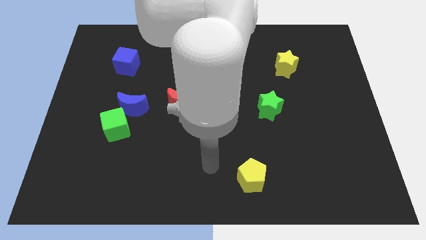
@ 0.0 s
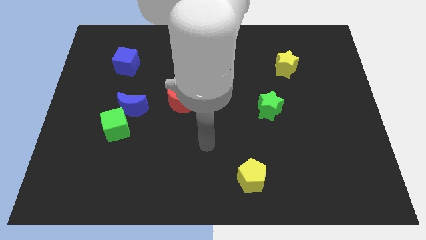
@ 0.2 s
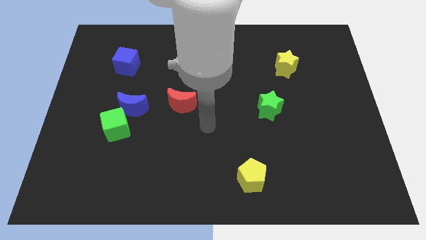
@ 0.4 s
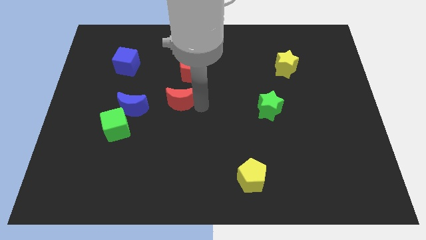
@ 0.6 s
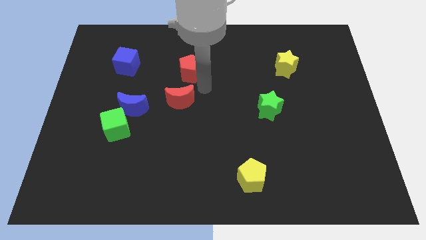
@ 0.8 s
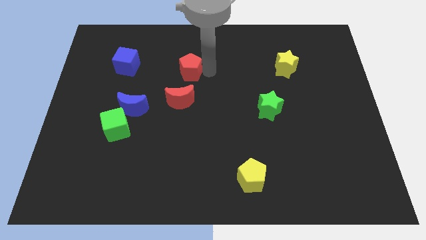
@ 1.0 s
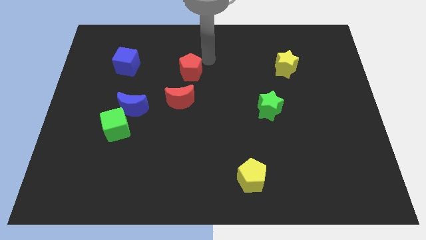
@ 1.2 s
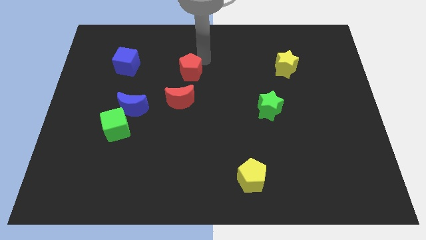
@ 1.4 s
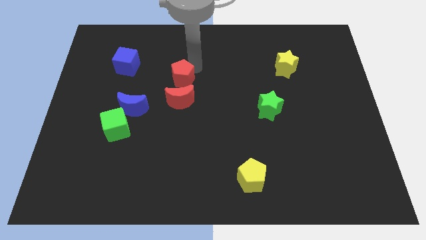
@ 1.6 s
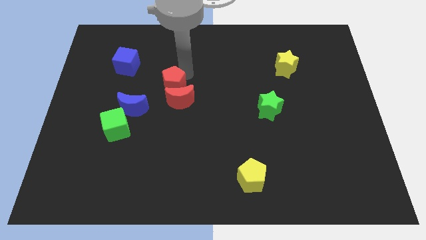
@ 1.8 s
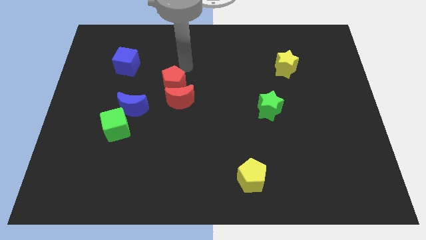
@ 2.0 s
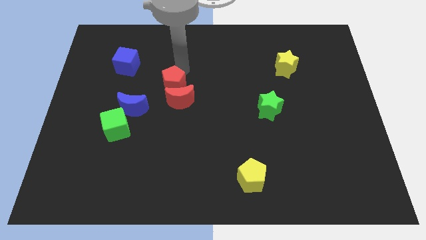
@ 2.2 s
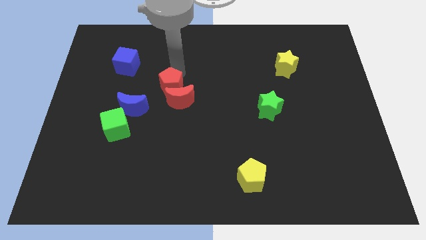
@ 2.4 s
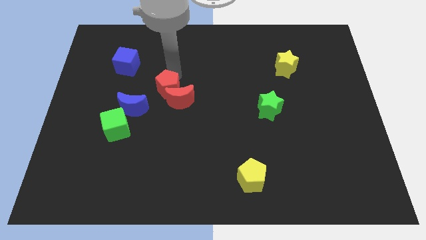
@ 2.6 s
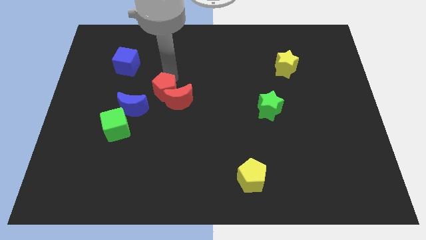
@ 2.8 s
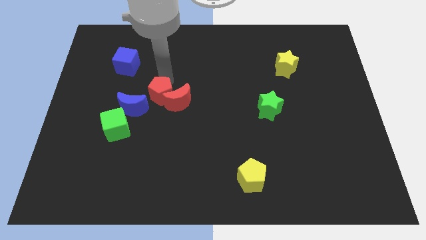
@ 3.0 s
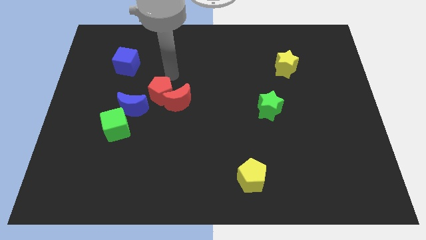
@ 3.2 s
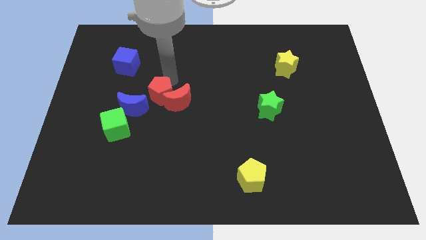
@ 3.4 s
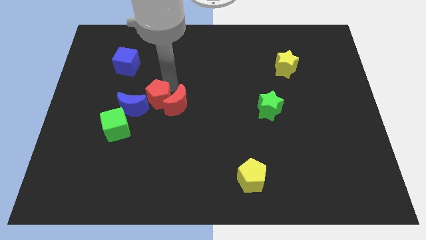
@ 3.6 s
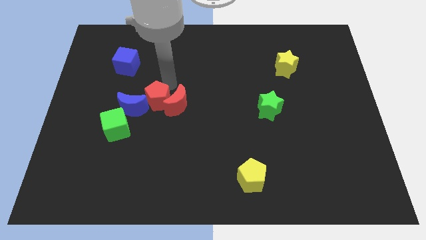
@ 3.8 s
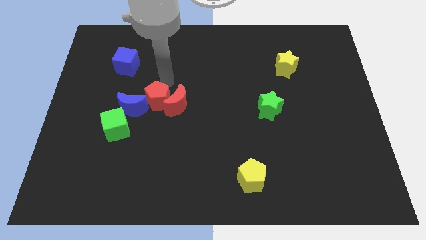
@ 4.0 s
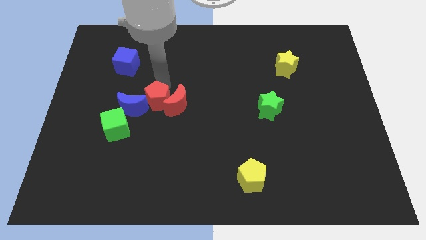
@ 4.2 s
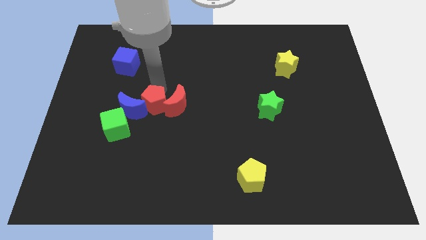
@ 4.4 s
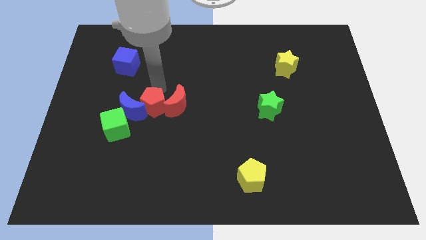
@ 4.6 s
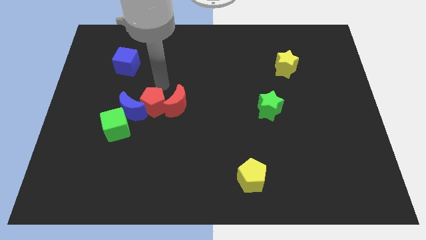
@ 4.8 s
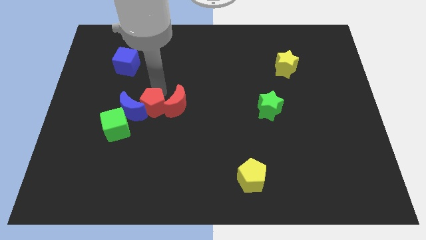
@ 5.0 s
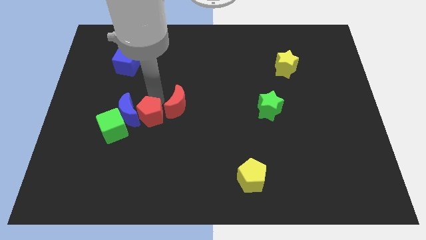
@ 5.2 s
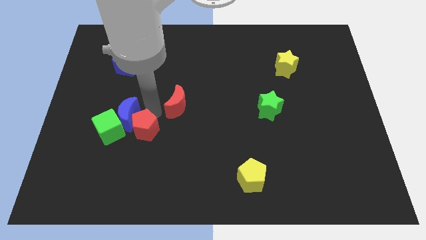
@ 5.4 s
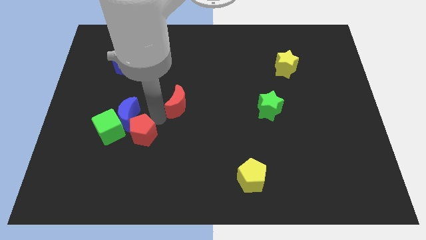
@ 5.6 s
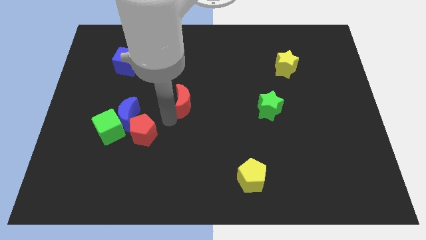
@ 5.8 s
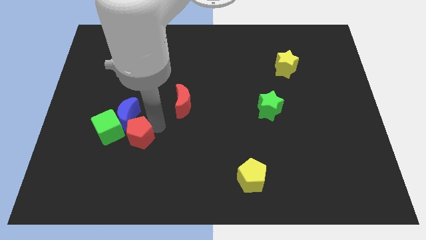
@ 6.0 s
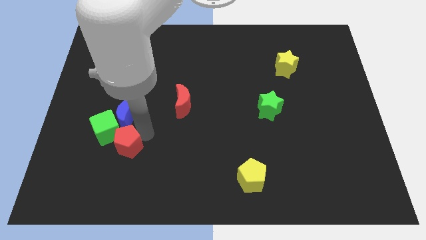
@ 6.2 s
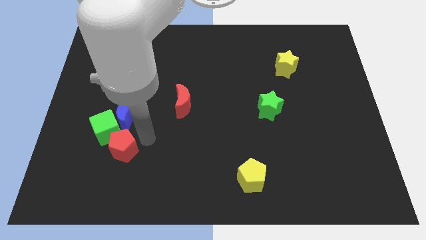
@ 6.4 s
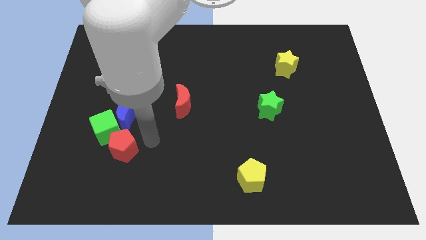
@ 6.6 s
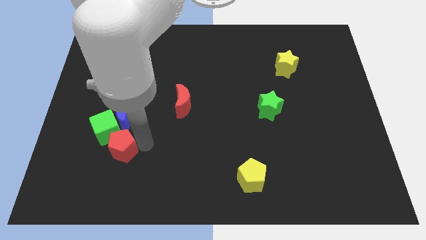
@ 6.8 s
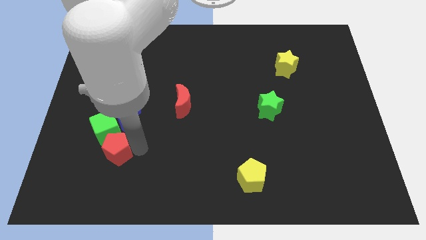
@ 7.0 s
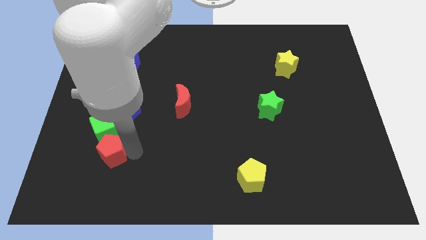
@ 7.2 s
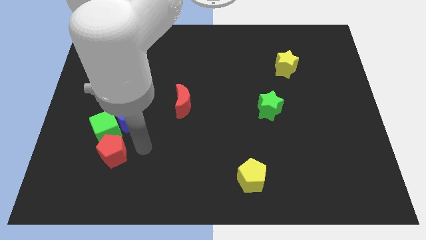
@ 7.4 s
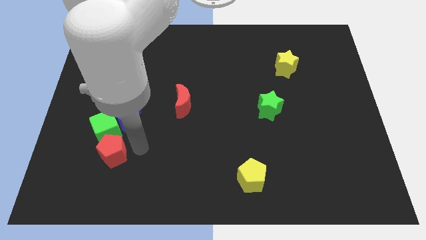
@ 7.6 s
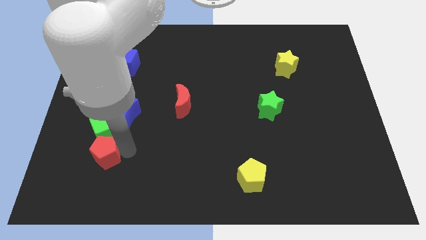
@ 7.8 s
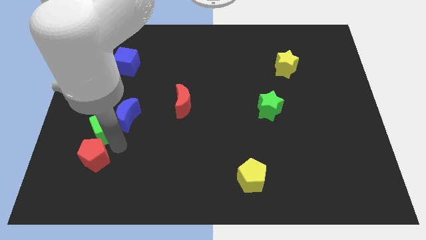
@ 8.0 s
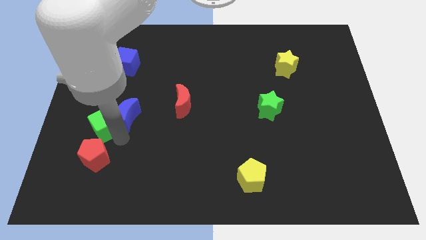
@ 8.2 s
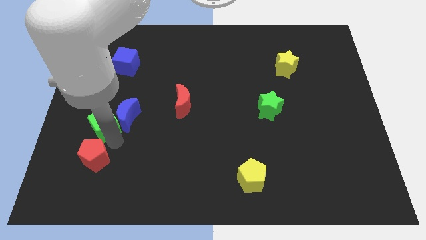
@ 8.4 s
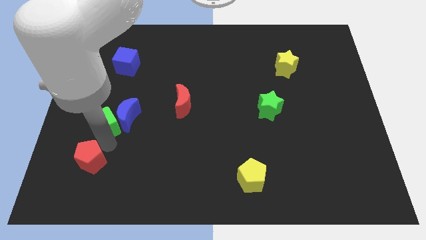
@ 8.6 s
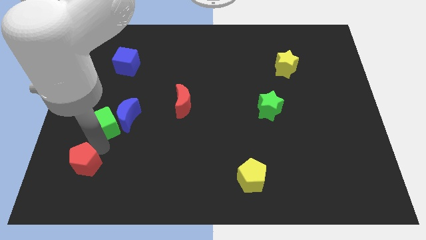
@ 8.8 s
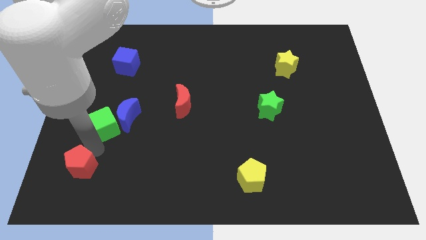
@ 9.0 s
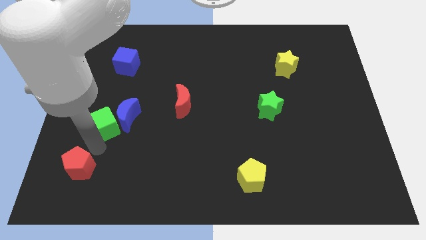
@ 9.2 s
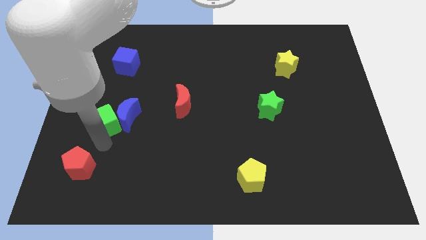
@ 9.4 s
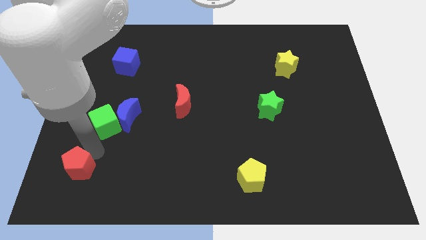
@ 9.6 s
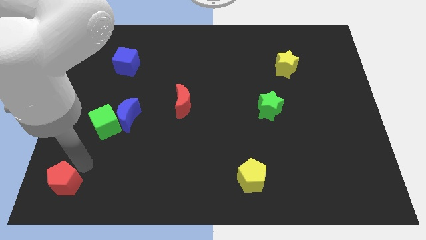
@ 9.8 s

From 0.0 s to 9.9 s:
push the red pentagon to the bottom left of the board

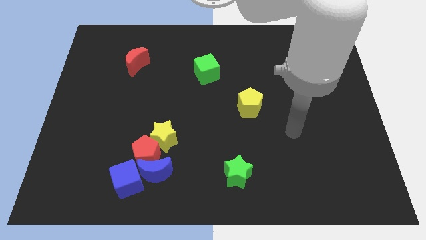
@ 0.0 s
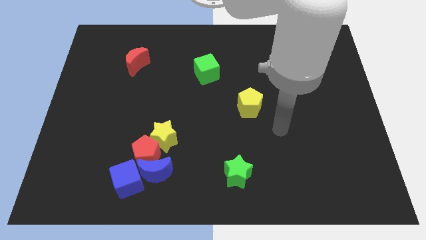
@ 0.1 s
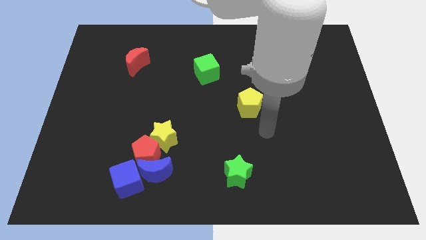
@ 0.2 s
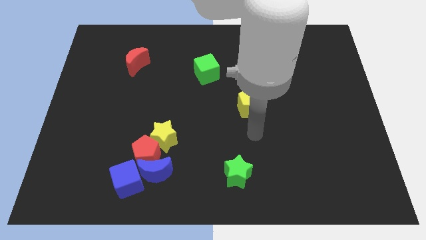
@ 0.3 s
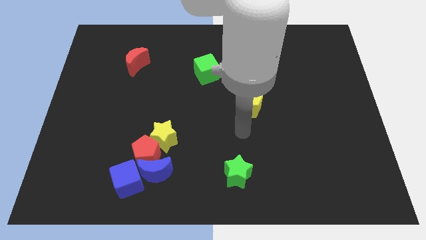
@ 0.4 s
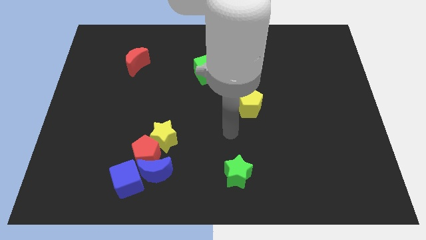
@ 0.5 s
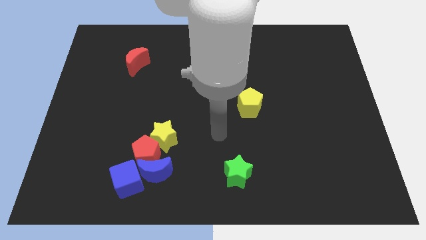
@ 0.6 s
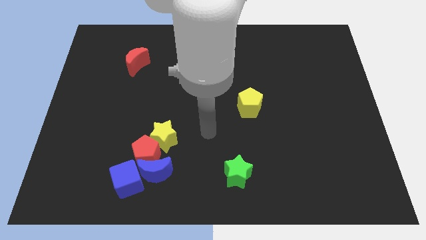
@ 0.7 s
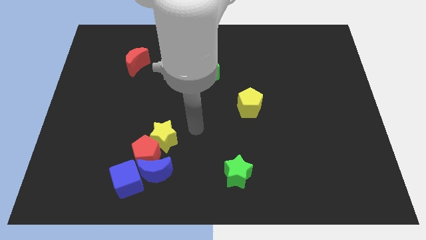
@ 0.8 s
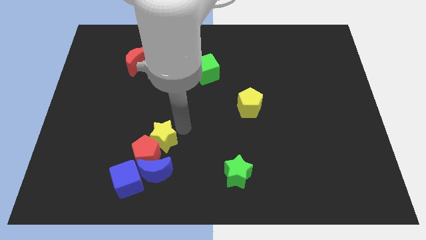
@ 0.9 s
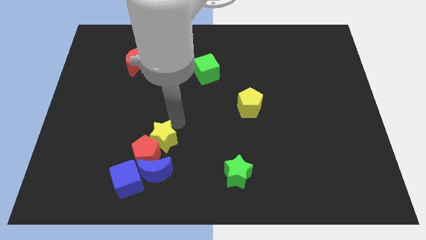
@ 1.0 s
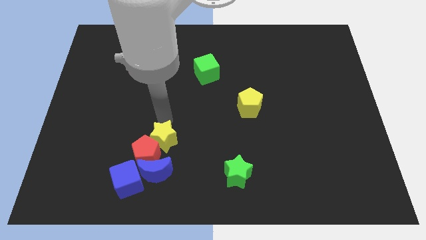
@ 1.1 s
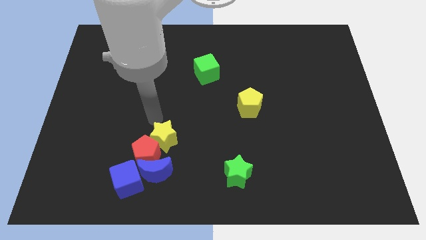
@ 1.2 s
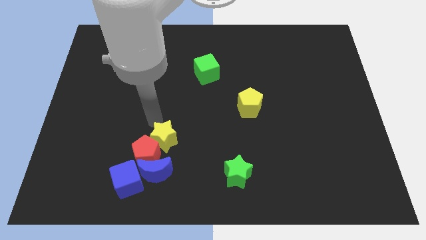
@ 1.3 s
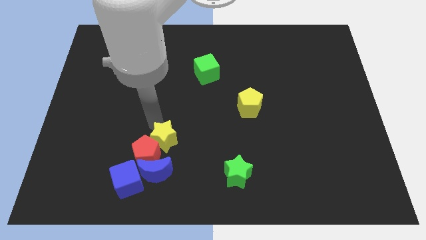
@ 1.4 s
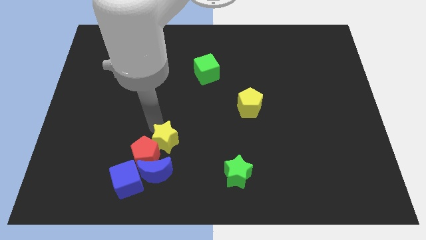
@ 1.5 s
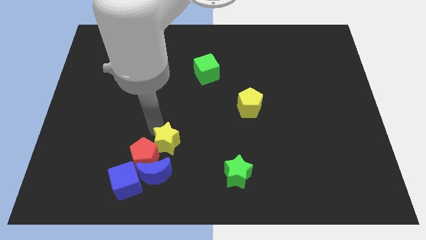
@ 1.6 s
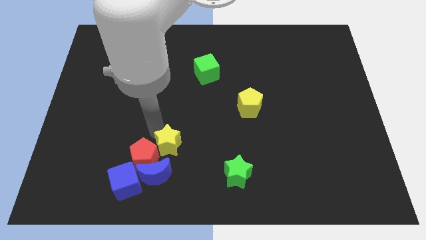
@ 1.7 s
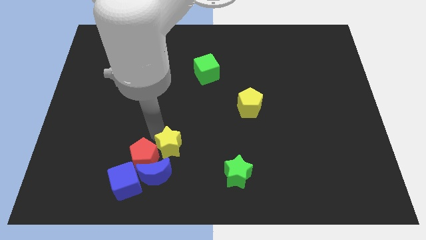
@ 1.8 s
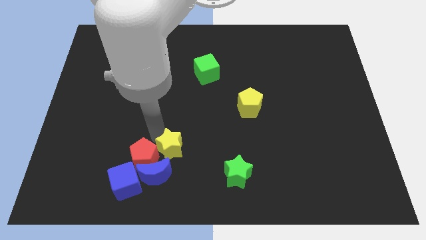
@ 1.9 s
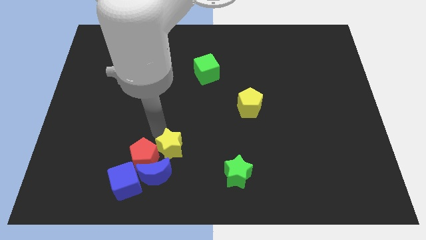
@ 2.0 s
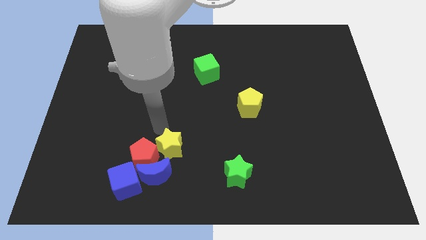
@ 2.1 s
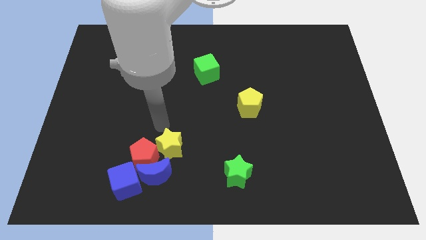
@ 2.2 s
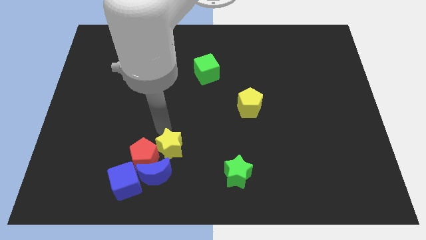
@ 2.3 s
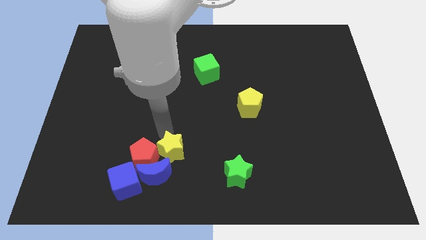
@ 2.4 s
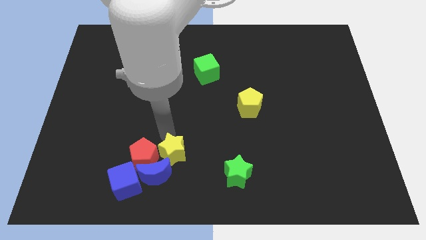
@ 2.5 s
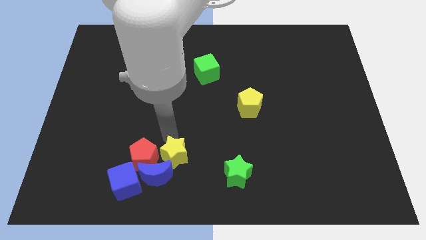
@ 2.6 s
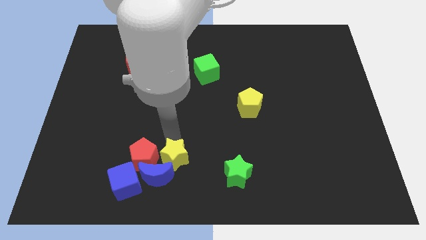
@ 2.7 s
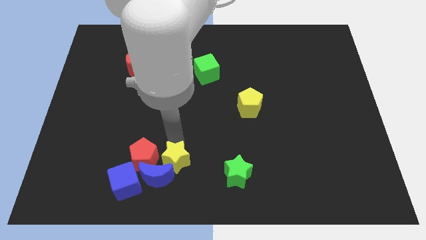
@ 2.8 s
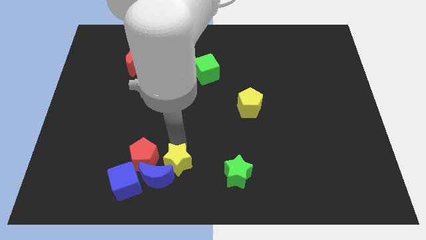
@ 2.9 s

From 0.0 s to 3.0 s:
slide the yellow star to the bottom side
